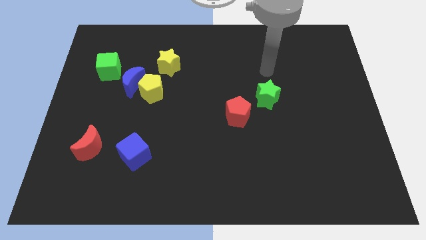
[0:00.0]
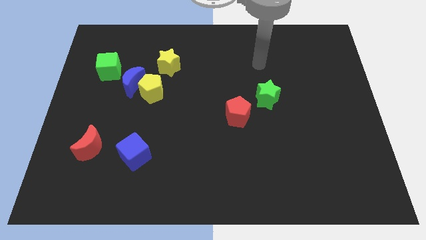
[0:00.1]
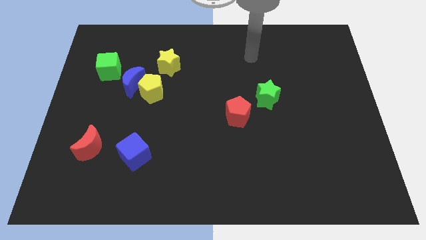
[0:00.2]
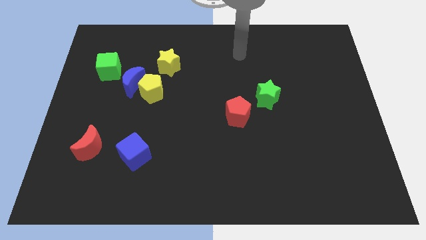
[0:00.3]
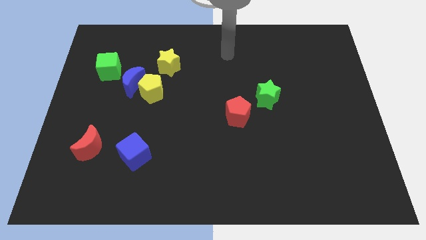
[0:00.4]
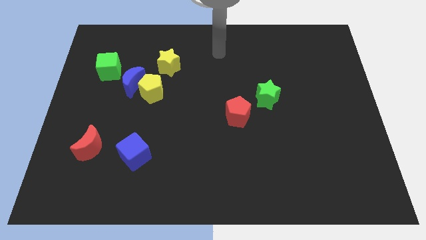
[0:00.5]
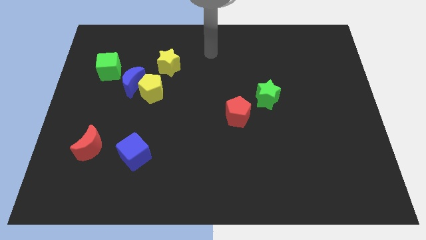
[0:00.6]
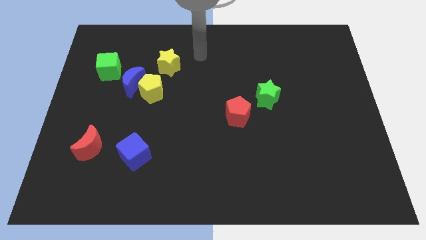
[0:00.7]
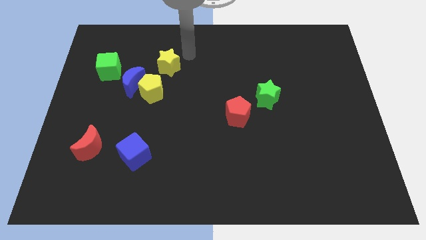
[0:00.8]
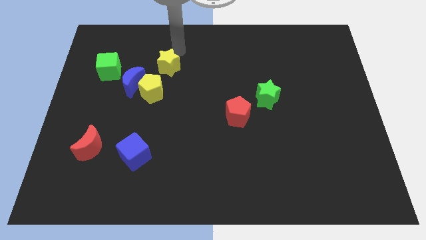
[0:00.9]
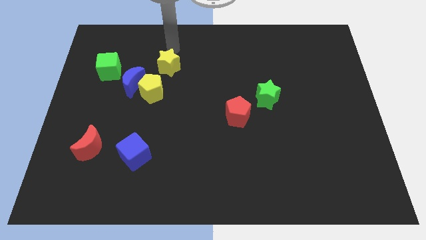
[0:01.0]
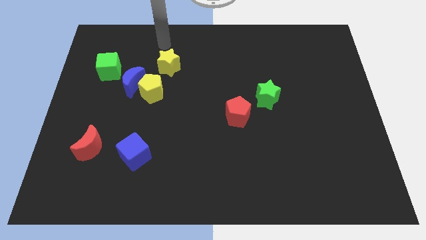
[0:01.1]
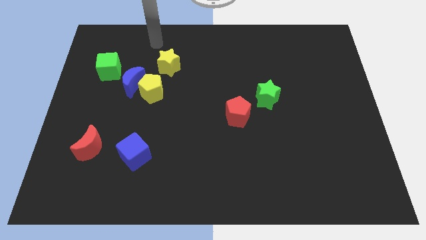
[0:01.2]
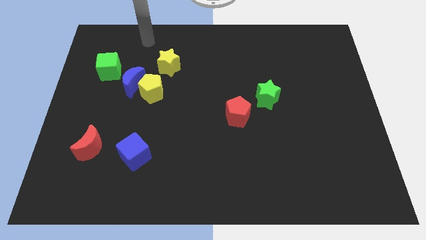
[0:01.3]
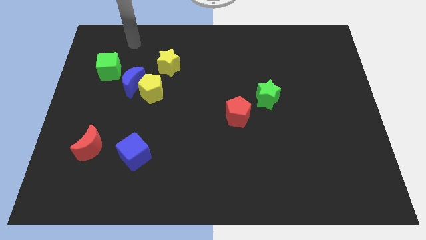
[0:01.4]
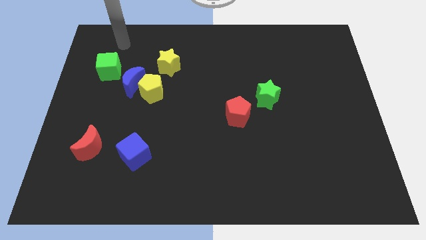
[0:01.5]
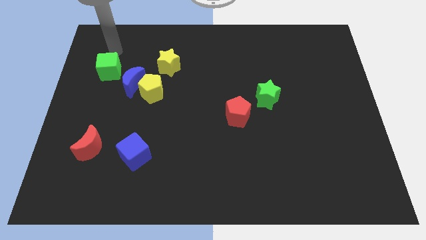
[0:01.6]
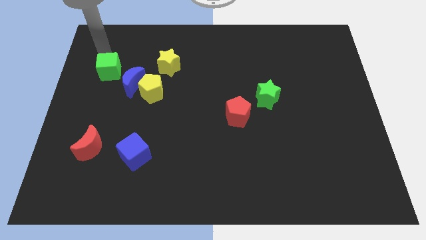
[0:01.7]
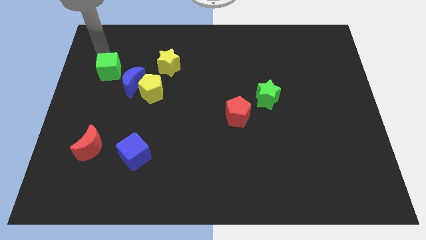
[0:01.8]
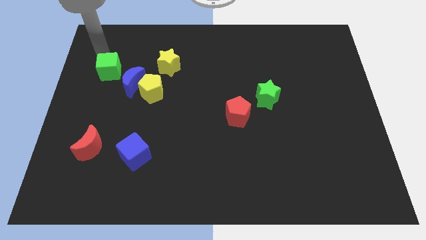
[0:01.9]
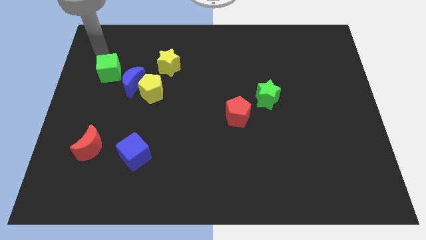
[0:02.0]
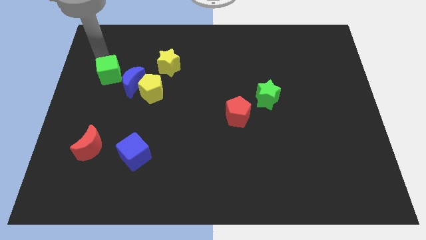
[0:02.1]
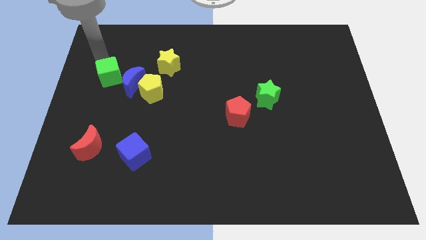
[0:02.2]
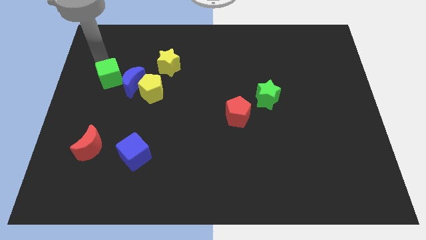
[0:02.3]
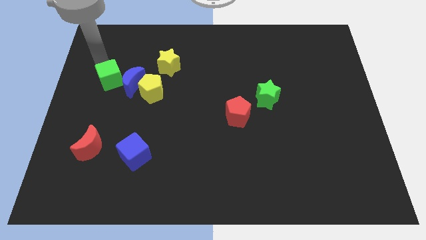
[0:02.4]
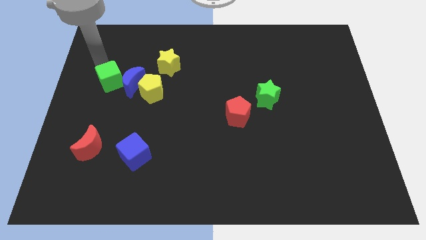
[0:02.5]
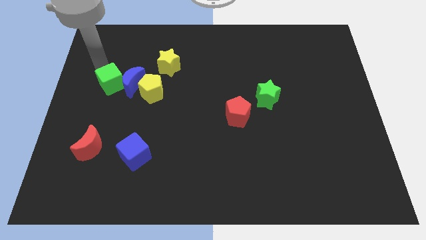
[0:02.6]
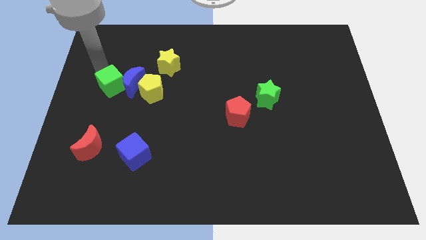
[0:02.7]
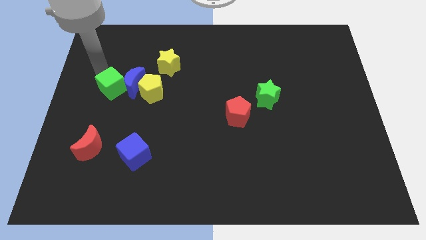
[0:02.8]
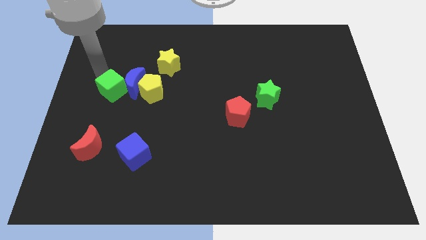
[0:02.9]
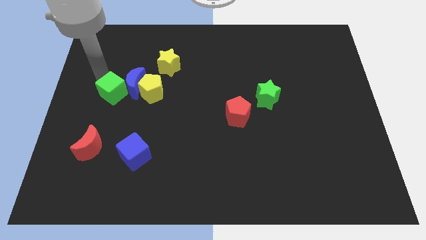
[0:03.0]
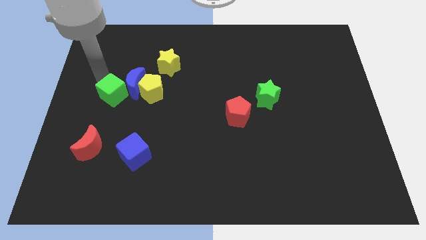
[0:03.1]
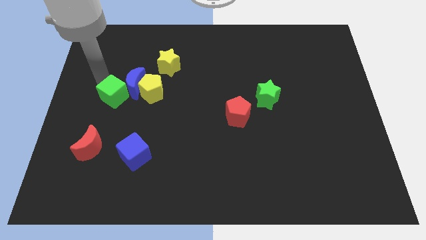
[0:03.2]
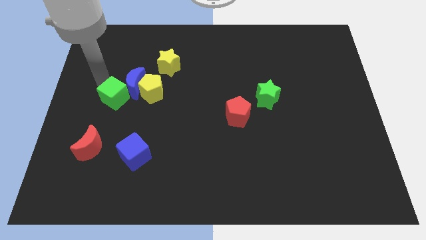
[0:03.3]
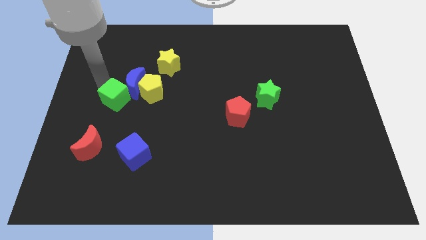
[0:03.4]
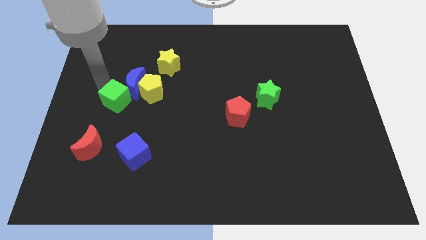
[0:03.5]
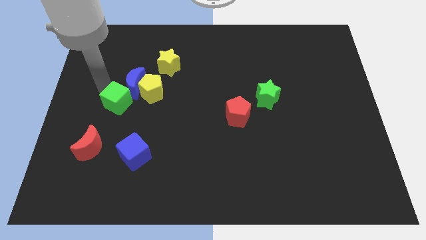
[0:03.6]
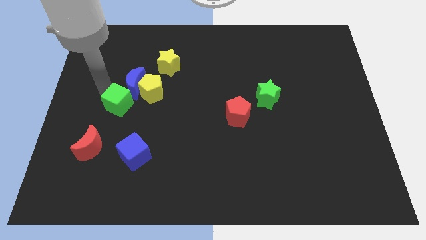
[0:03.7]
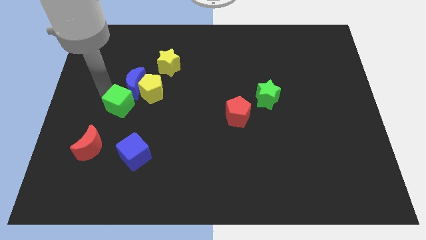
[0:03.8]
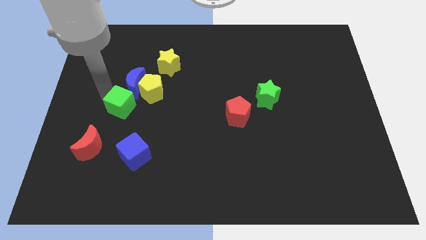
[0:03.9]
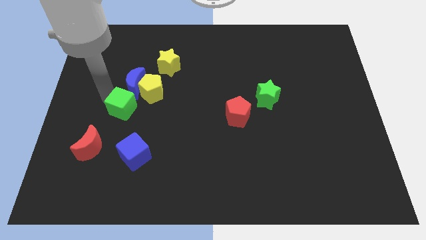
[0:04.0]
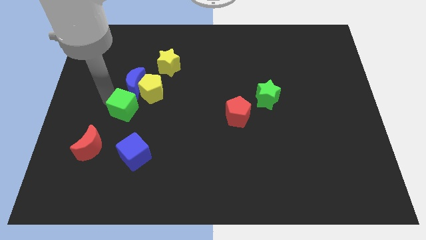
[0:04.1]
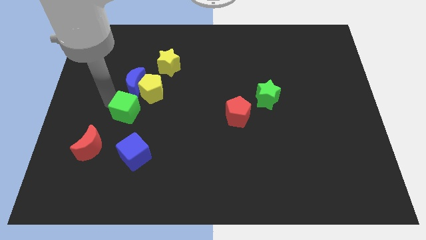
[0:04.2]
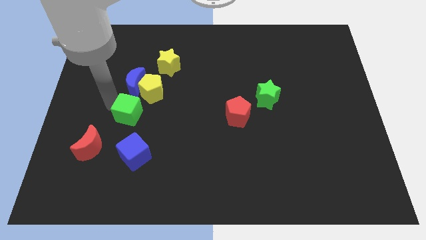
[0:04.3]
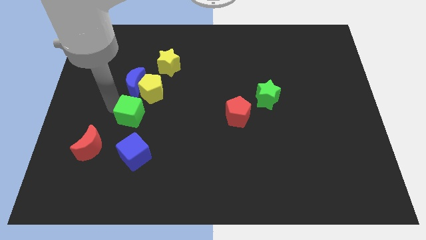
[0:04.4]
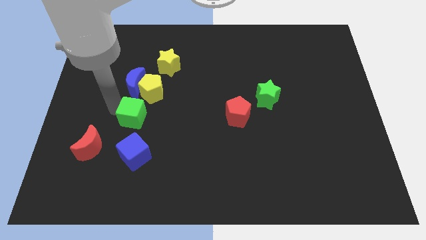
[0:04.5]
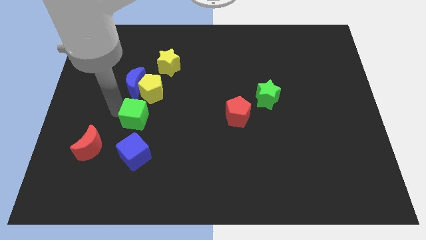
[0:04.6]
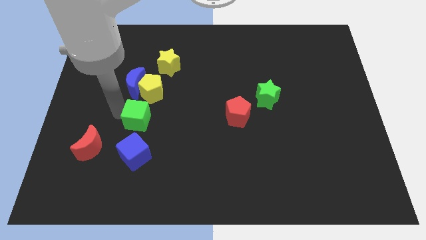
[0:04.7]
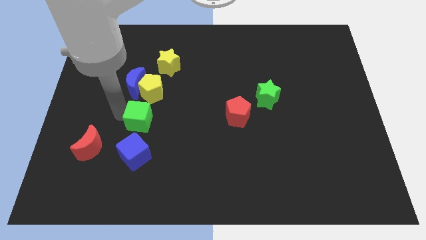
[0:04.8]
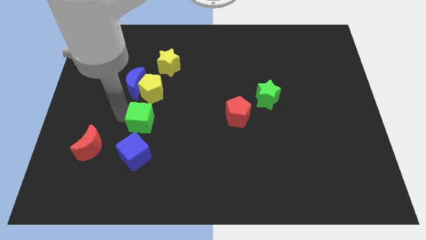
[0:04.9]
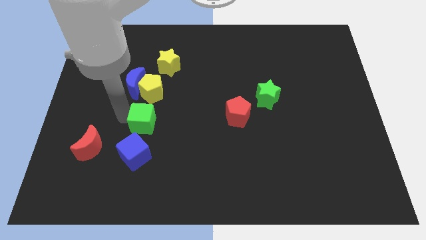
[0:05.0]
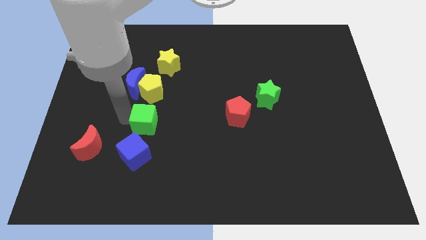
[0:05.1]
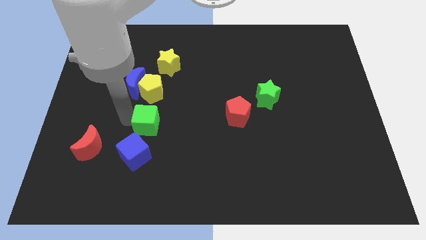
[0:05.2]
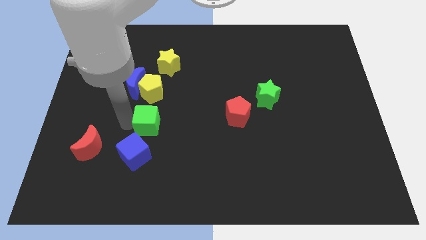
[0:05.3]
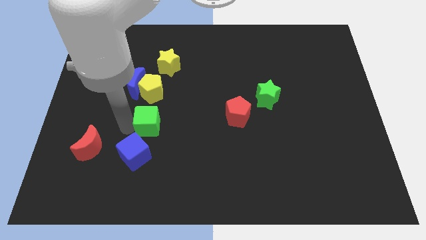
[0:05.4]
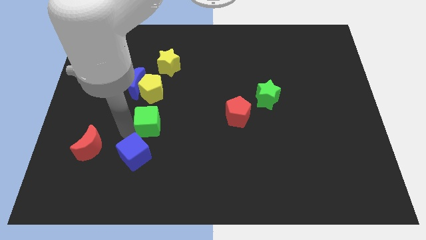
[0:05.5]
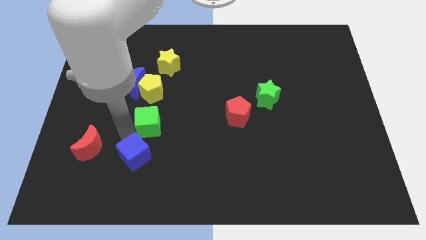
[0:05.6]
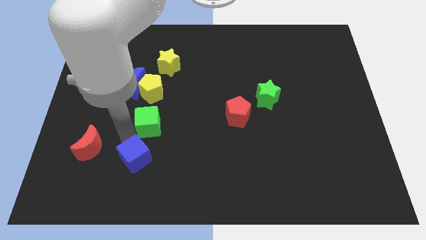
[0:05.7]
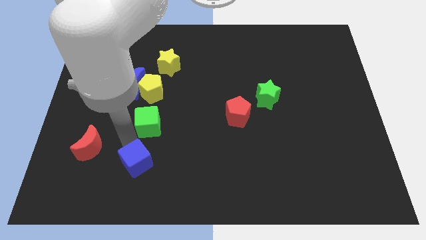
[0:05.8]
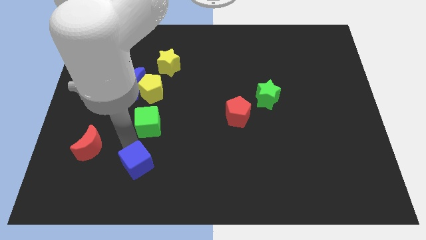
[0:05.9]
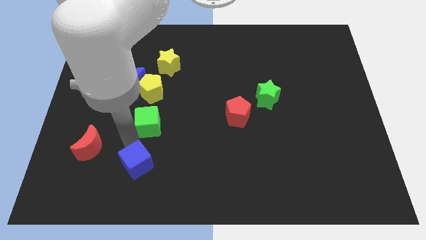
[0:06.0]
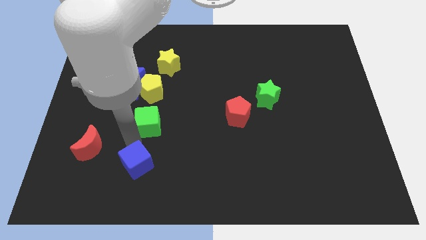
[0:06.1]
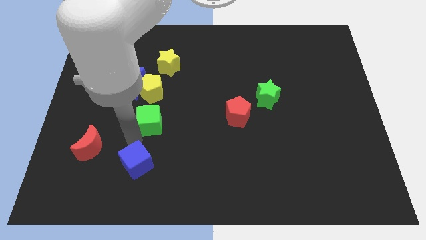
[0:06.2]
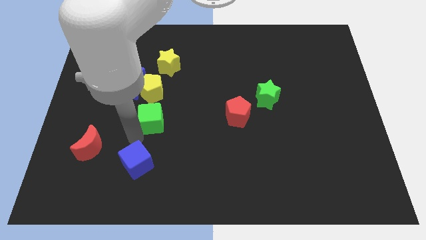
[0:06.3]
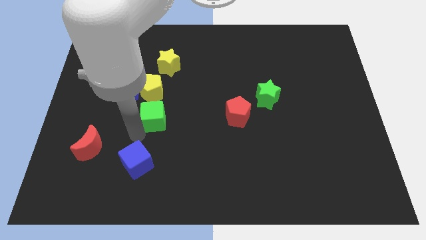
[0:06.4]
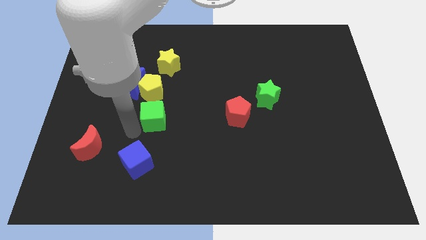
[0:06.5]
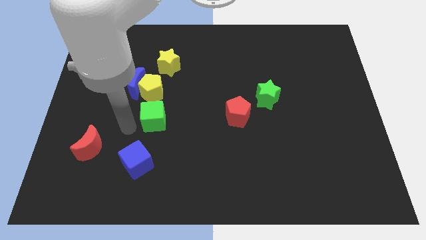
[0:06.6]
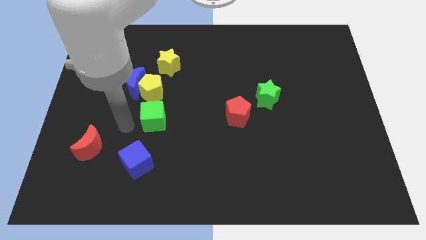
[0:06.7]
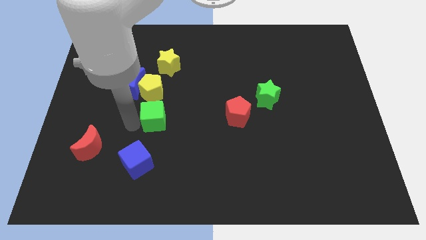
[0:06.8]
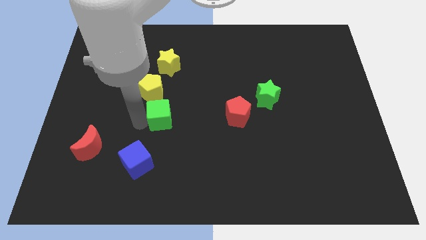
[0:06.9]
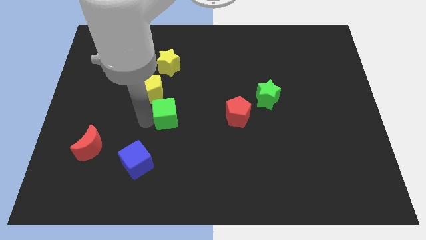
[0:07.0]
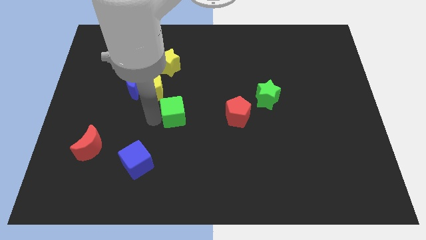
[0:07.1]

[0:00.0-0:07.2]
push the green cube left of the red pentagon
